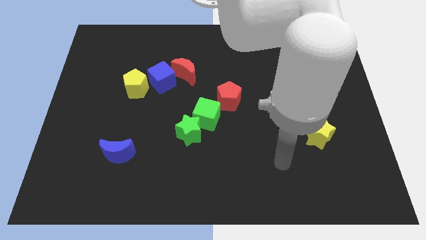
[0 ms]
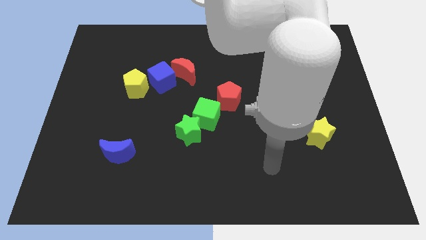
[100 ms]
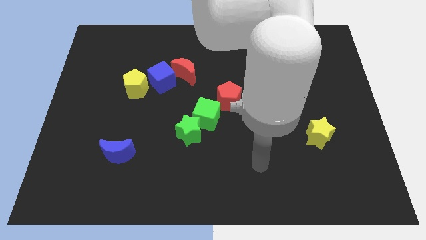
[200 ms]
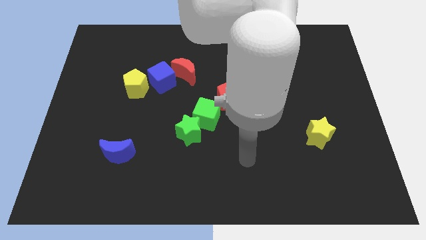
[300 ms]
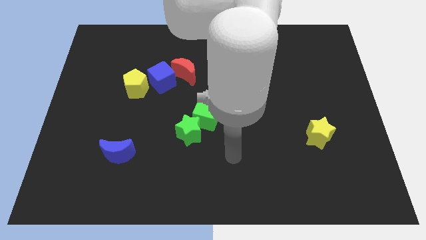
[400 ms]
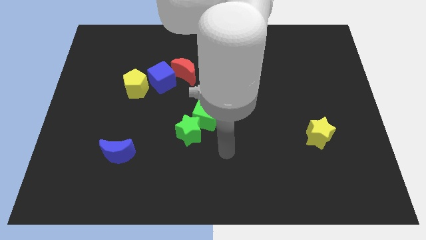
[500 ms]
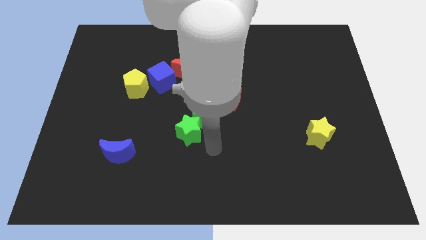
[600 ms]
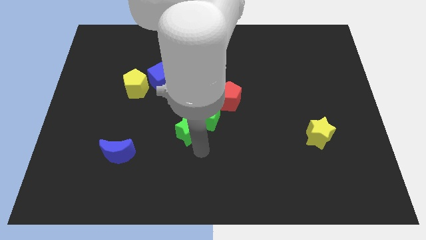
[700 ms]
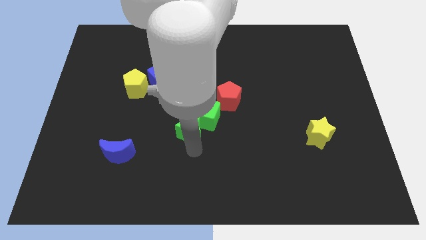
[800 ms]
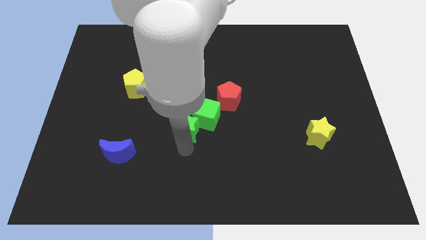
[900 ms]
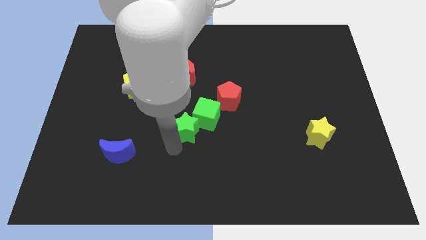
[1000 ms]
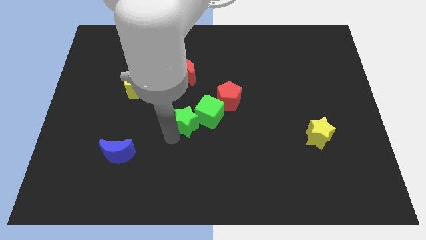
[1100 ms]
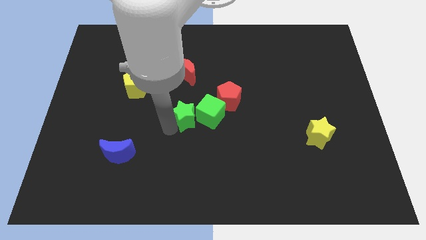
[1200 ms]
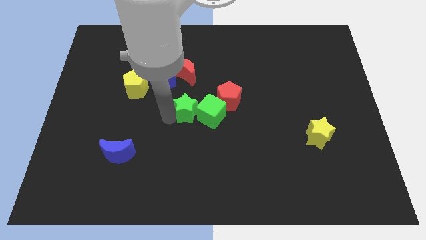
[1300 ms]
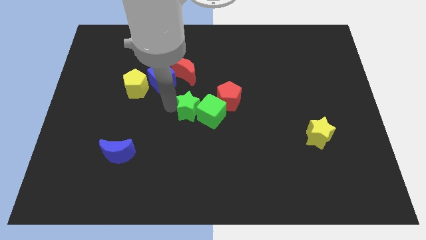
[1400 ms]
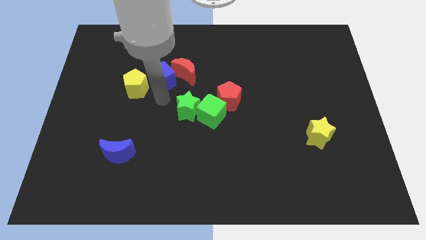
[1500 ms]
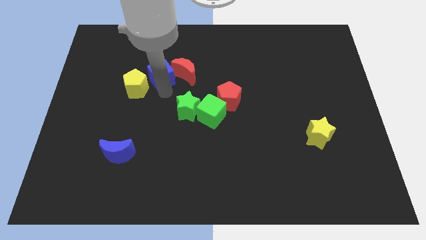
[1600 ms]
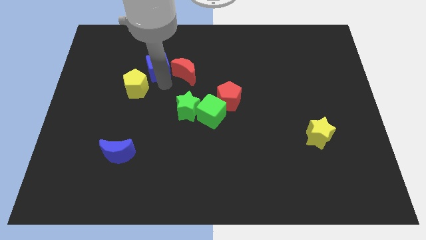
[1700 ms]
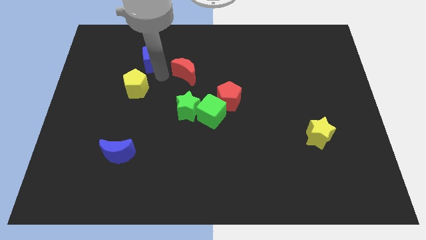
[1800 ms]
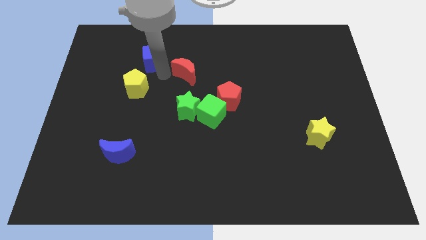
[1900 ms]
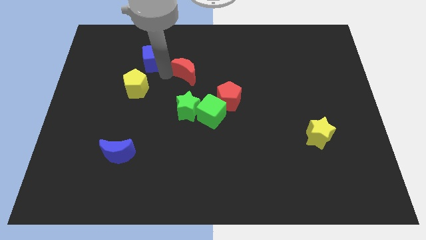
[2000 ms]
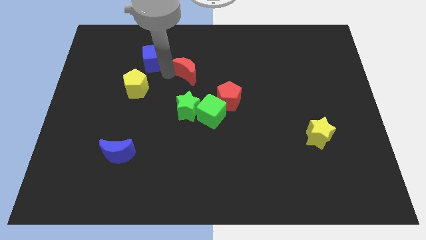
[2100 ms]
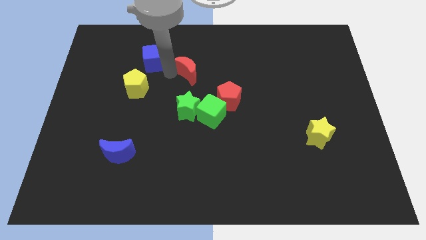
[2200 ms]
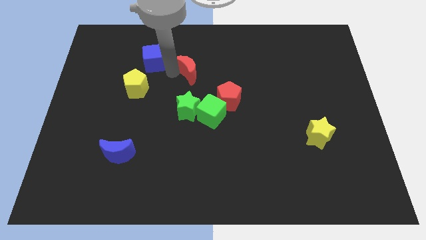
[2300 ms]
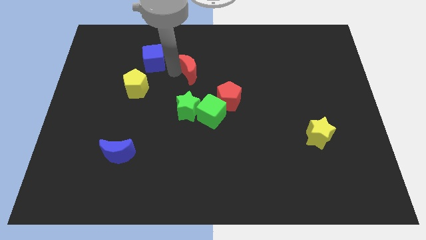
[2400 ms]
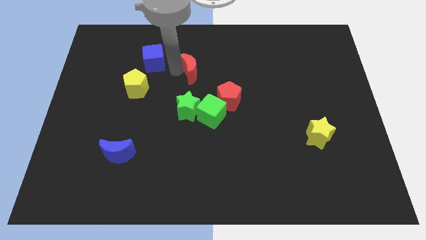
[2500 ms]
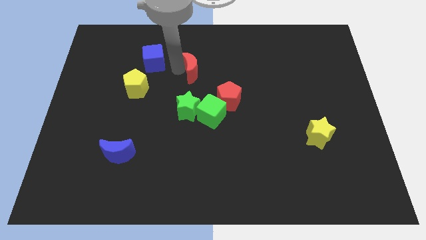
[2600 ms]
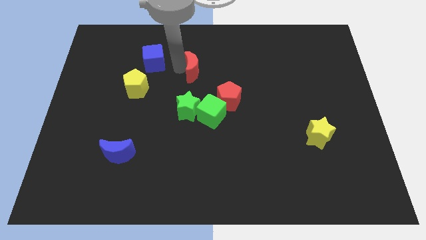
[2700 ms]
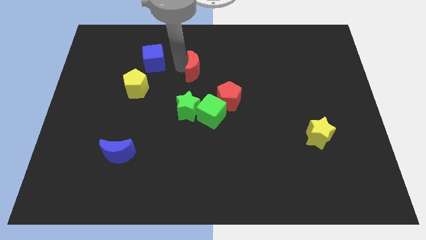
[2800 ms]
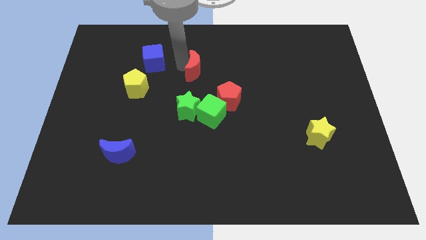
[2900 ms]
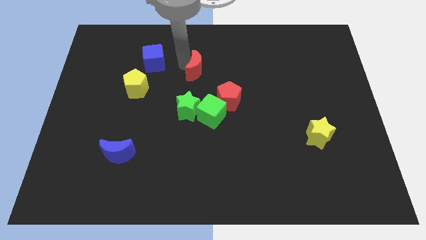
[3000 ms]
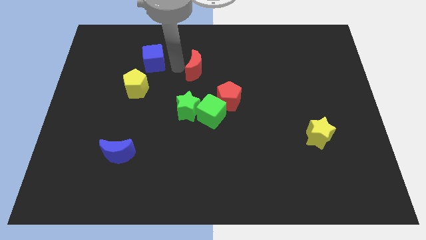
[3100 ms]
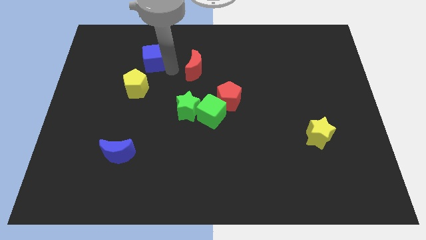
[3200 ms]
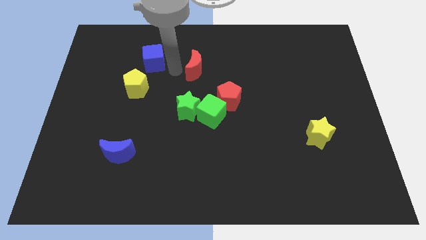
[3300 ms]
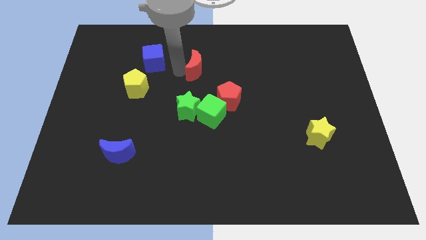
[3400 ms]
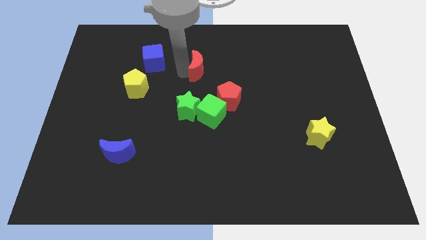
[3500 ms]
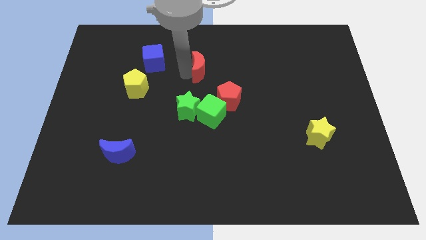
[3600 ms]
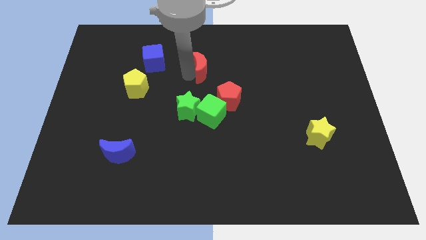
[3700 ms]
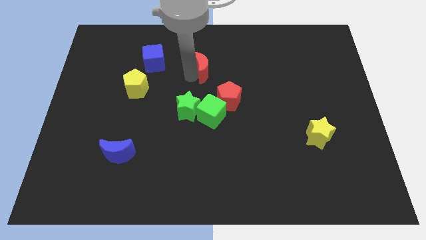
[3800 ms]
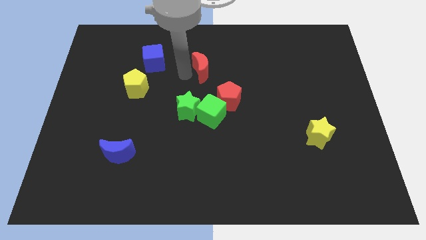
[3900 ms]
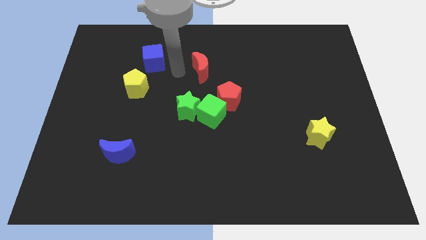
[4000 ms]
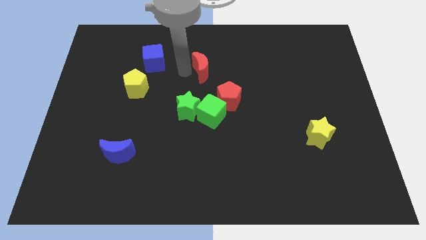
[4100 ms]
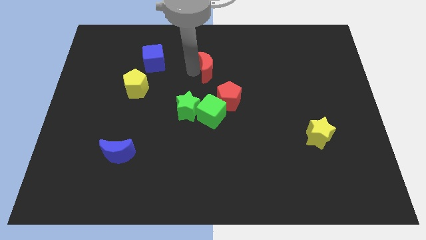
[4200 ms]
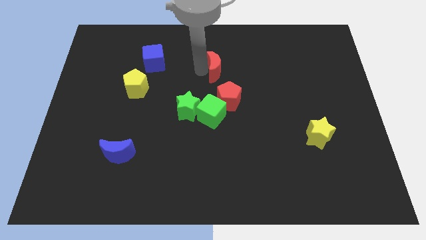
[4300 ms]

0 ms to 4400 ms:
move the red moon a little to the right

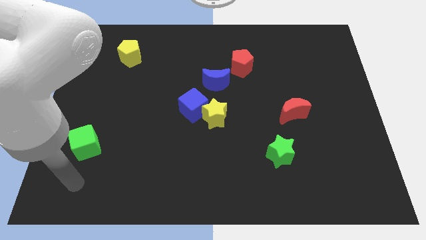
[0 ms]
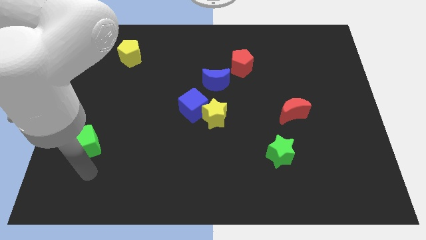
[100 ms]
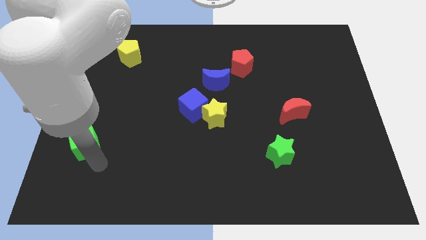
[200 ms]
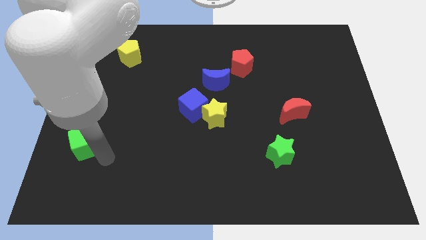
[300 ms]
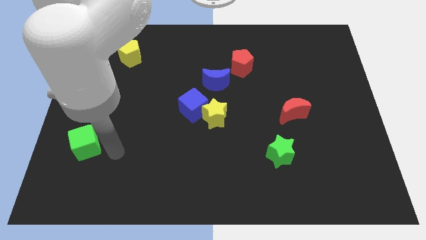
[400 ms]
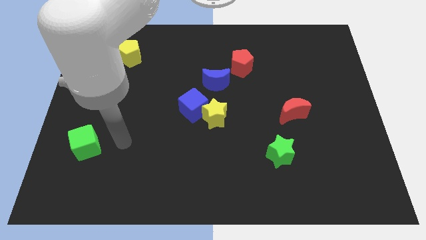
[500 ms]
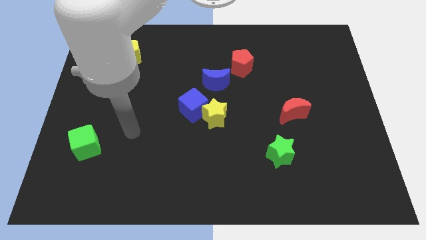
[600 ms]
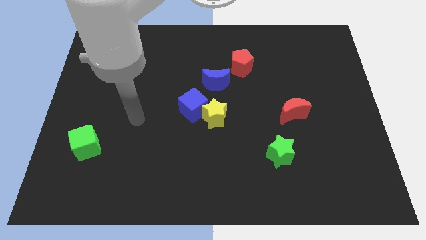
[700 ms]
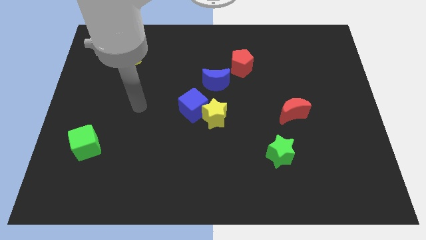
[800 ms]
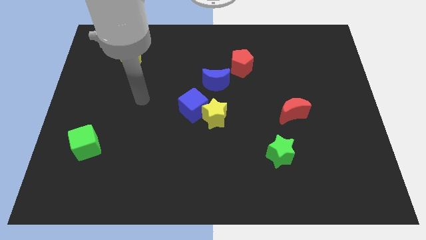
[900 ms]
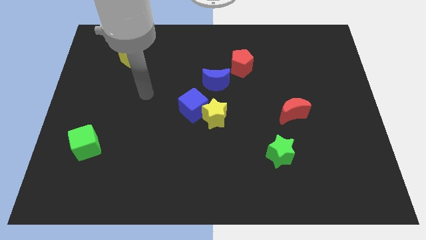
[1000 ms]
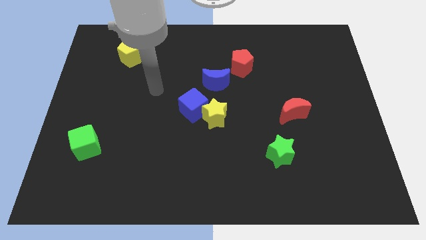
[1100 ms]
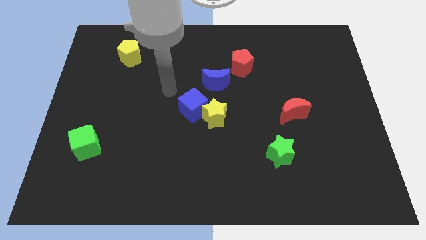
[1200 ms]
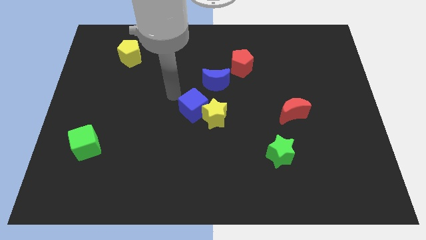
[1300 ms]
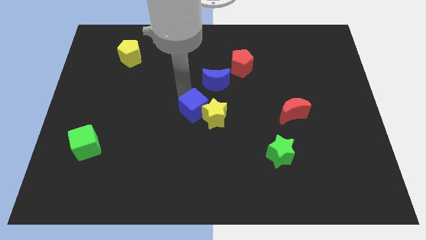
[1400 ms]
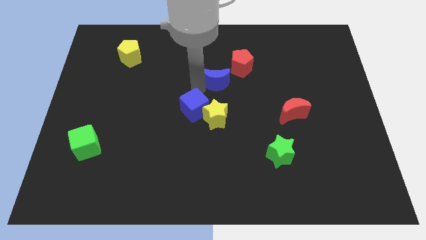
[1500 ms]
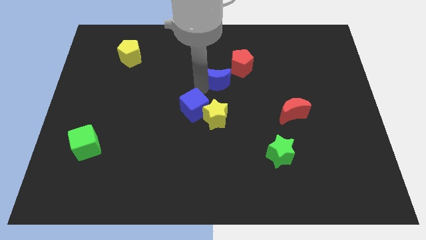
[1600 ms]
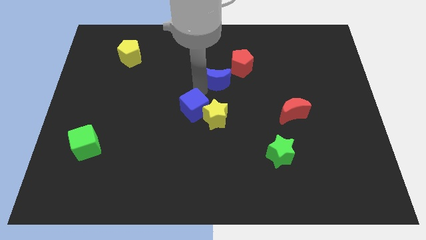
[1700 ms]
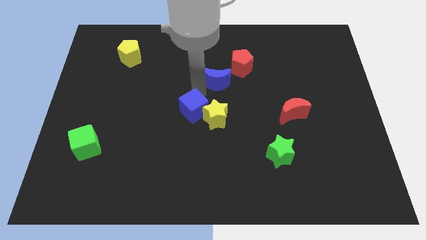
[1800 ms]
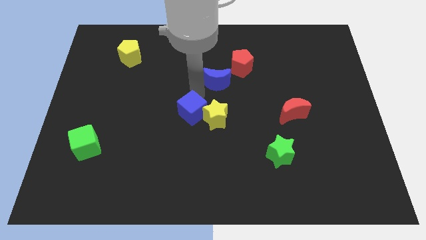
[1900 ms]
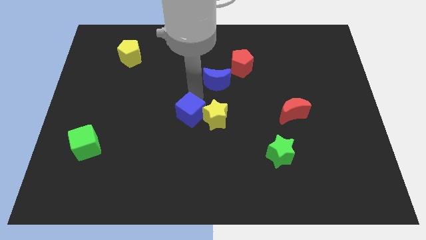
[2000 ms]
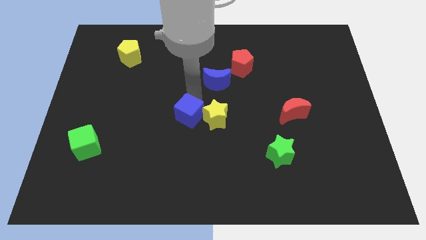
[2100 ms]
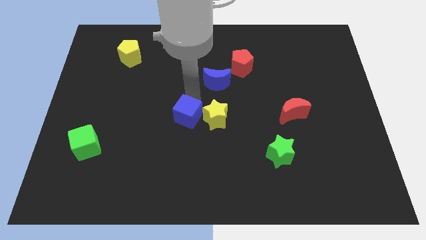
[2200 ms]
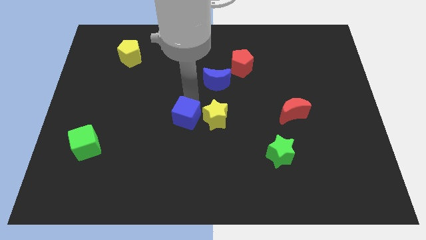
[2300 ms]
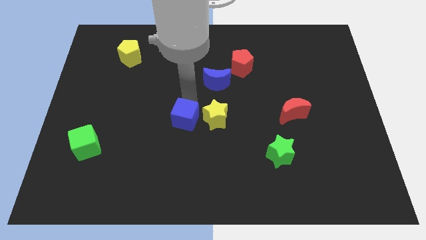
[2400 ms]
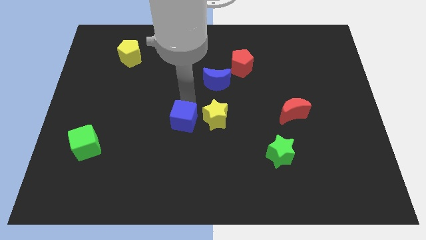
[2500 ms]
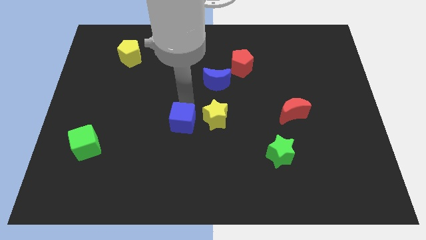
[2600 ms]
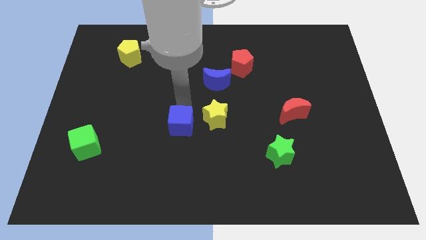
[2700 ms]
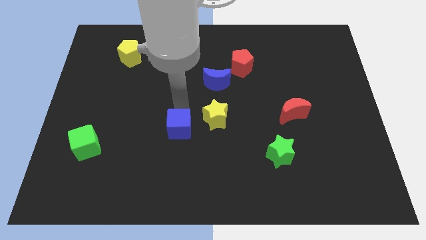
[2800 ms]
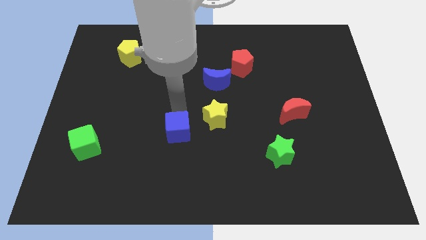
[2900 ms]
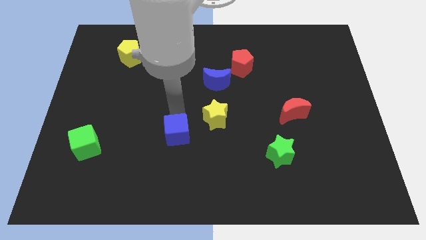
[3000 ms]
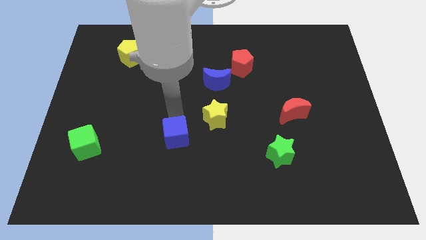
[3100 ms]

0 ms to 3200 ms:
slightly push the blue cube down

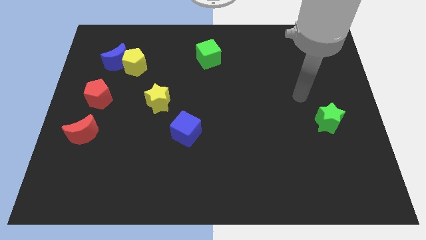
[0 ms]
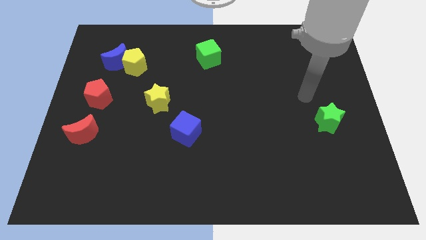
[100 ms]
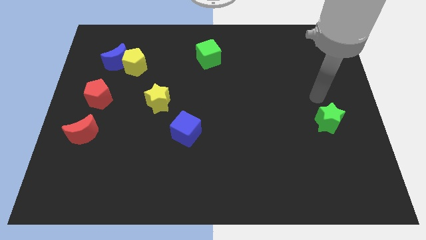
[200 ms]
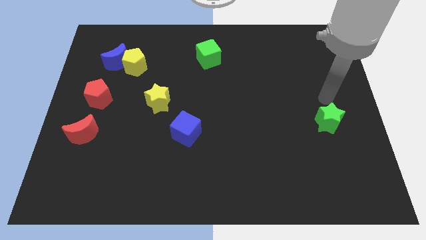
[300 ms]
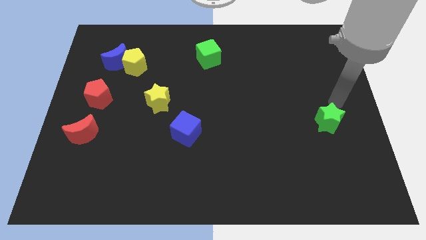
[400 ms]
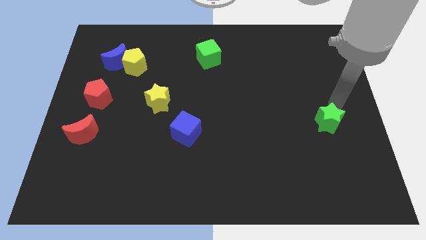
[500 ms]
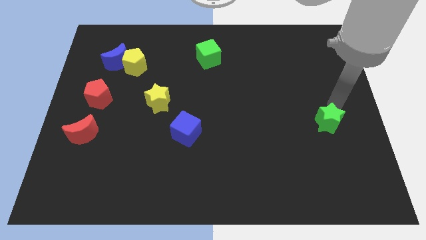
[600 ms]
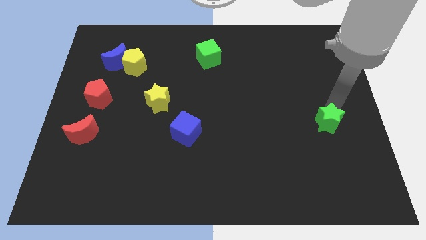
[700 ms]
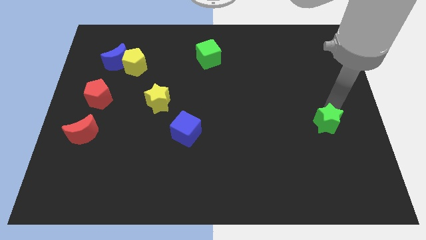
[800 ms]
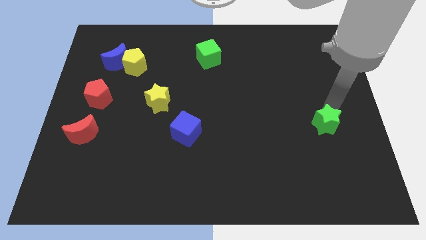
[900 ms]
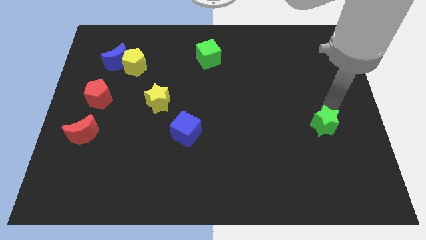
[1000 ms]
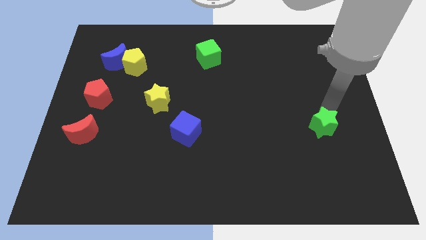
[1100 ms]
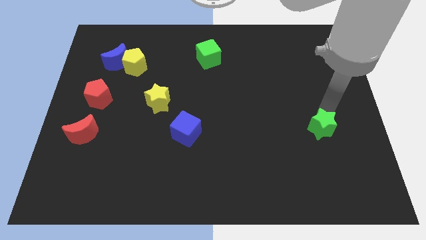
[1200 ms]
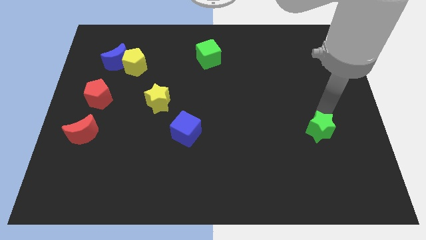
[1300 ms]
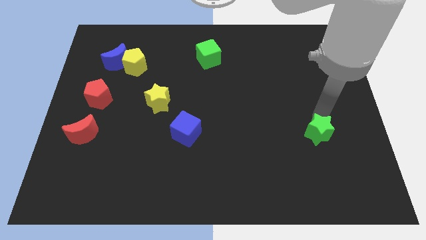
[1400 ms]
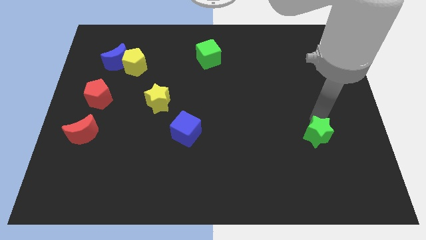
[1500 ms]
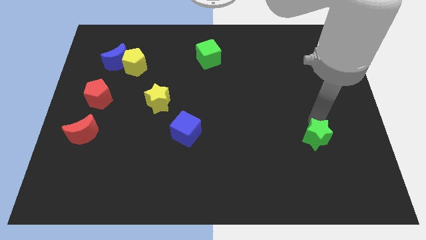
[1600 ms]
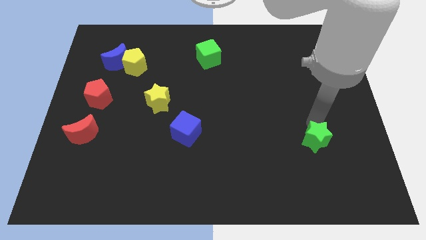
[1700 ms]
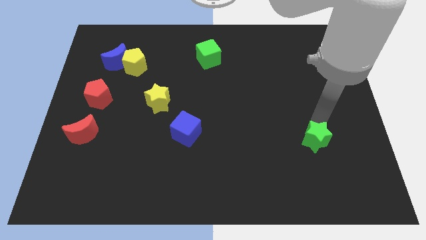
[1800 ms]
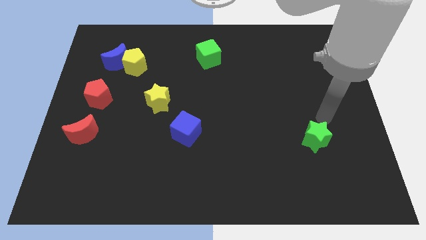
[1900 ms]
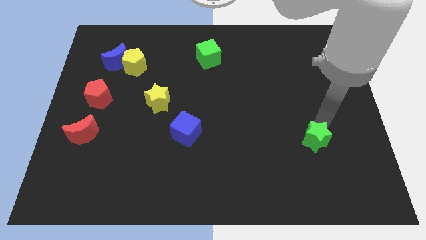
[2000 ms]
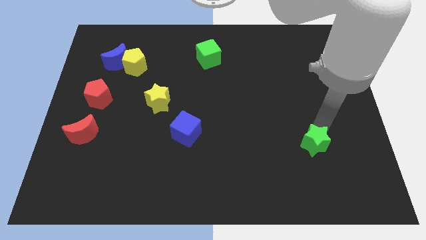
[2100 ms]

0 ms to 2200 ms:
slide the green star down and left diagonally a little
